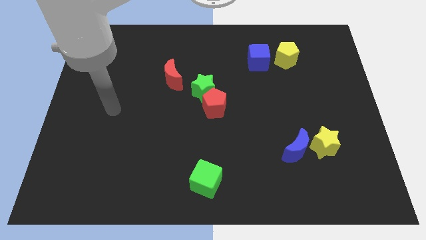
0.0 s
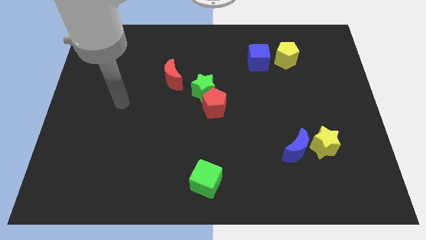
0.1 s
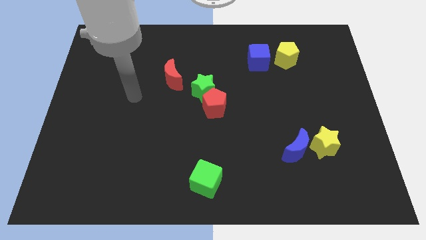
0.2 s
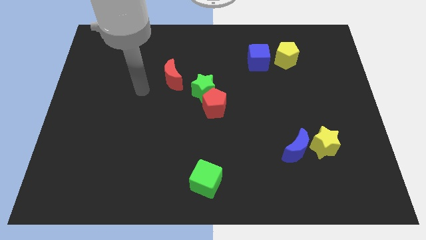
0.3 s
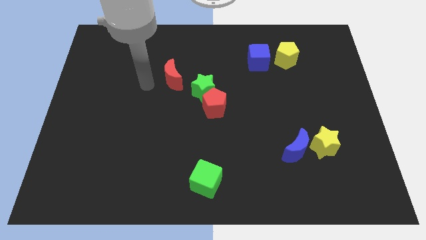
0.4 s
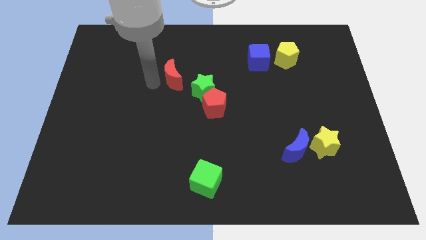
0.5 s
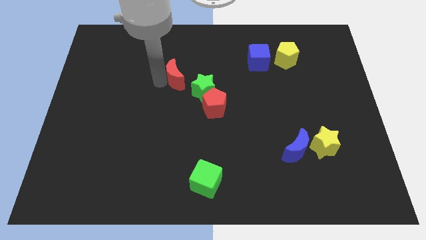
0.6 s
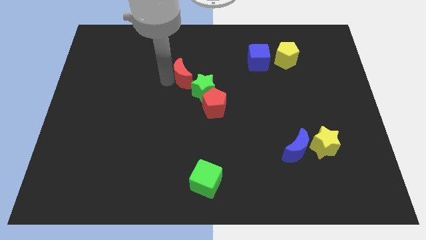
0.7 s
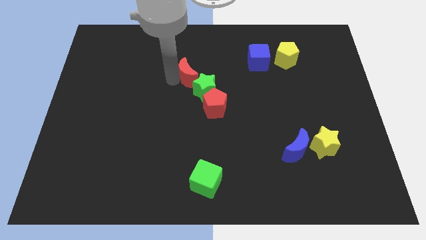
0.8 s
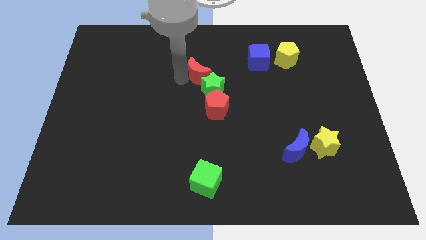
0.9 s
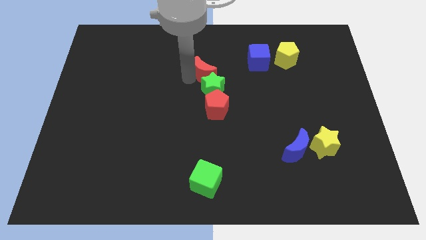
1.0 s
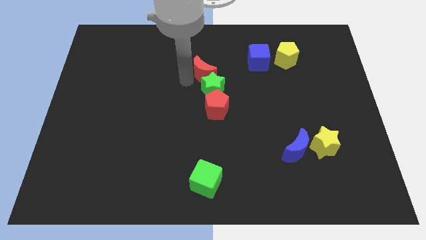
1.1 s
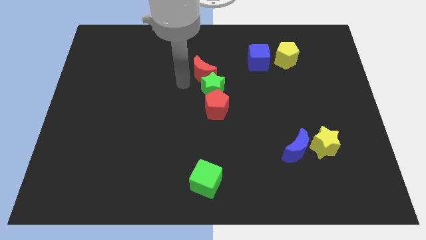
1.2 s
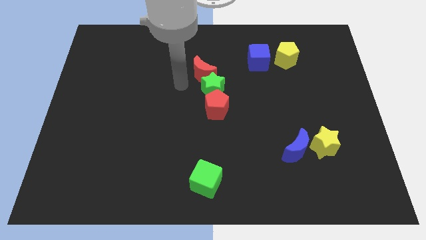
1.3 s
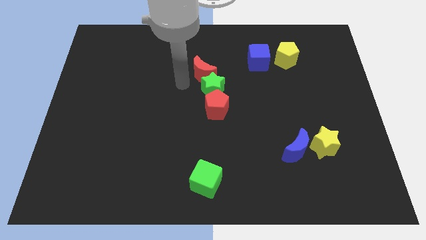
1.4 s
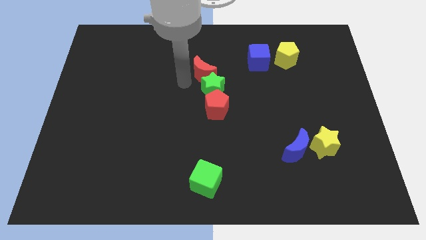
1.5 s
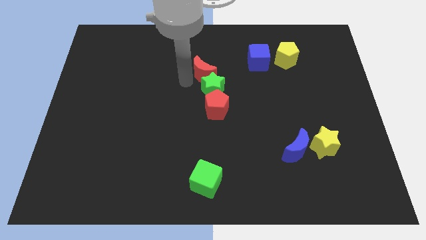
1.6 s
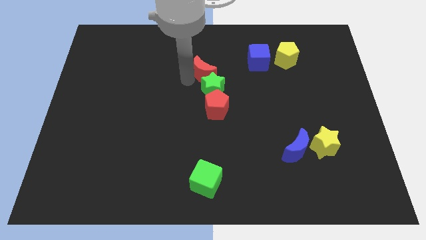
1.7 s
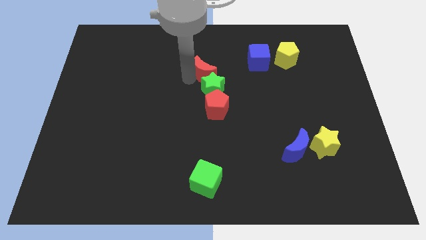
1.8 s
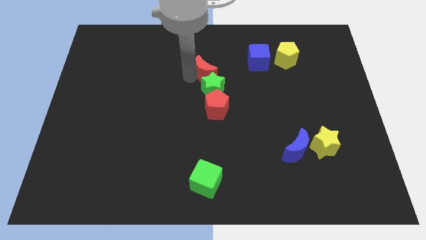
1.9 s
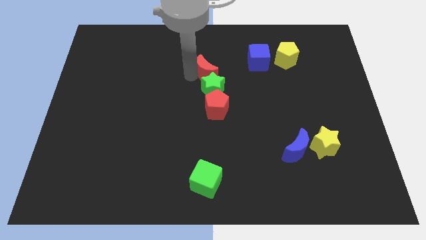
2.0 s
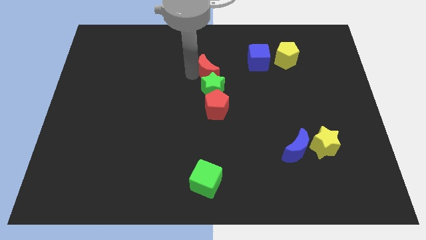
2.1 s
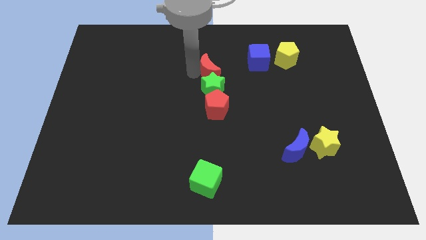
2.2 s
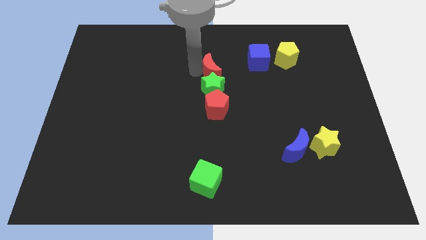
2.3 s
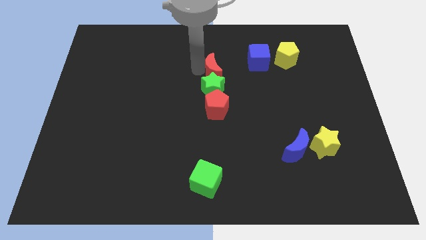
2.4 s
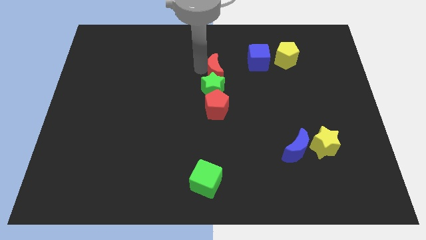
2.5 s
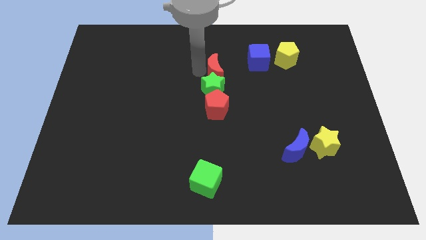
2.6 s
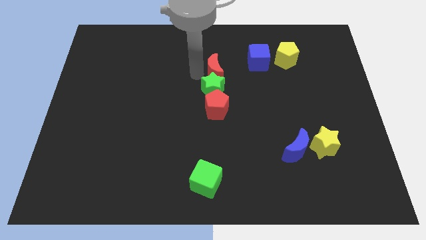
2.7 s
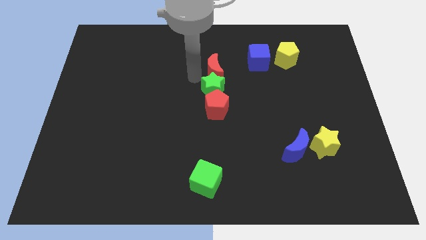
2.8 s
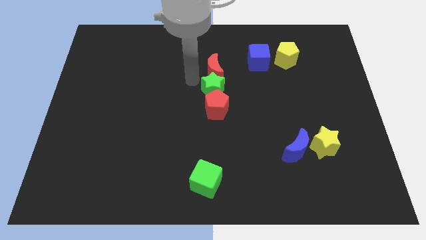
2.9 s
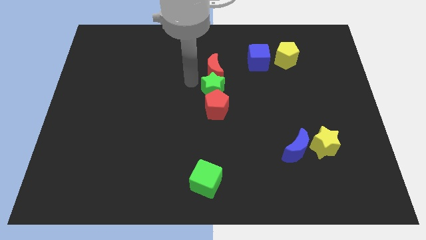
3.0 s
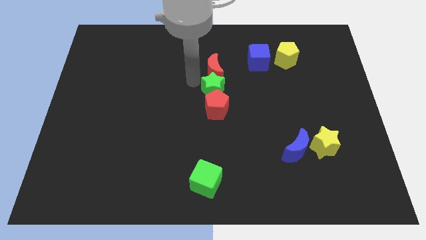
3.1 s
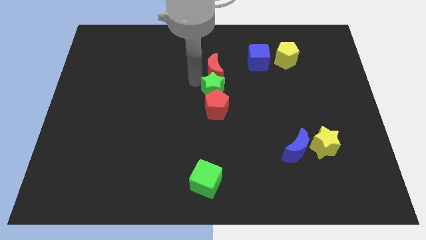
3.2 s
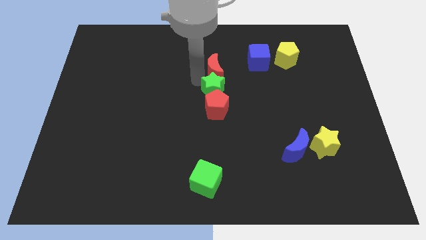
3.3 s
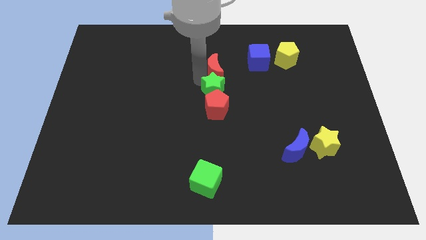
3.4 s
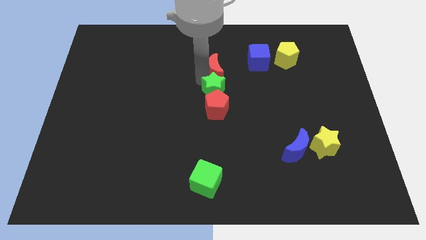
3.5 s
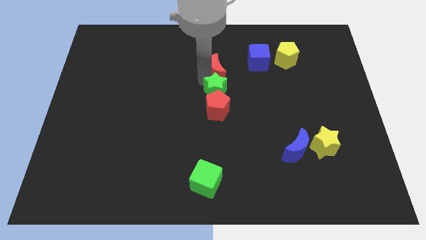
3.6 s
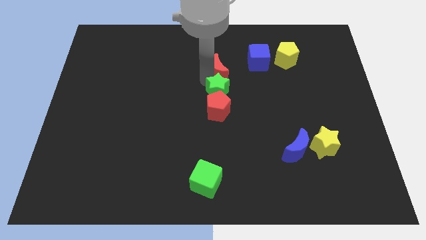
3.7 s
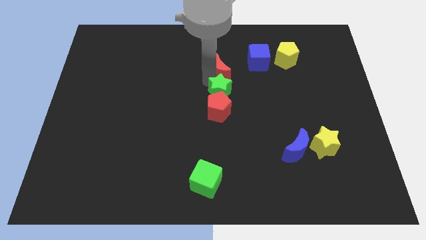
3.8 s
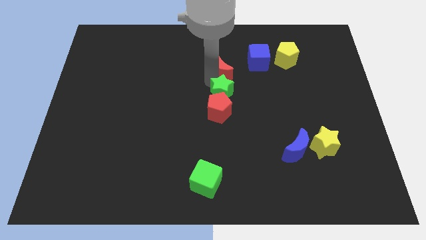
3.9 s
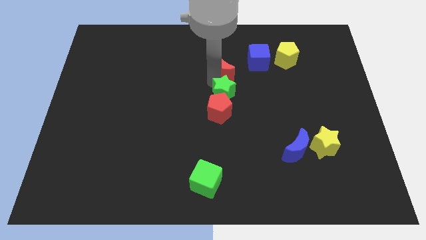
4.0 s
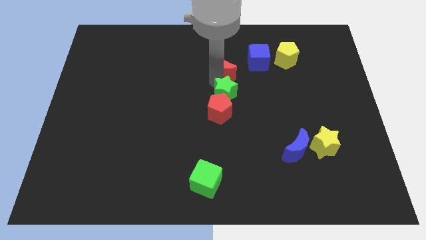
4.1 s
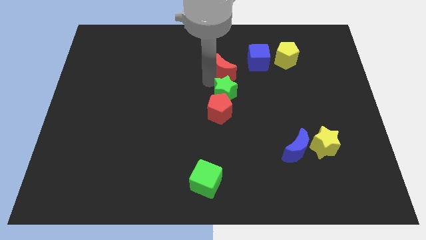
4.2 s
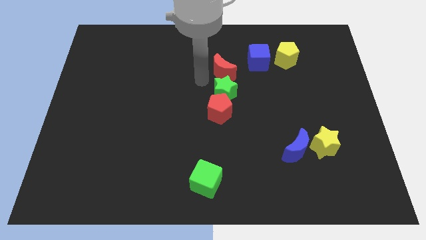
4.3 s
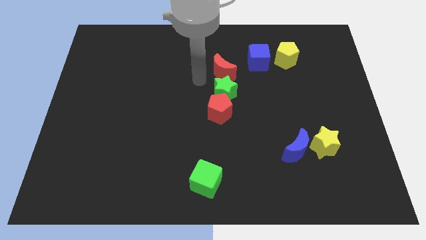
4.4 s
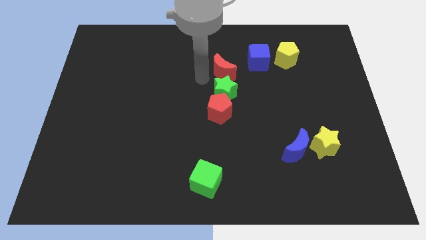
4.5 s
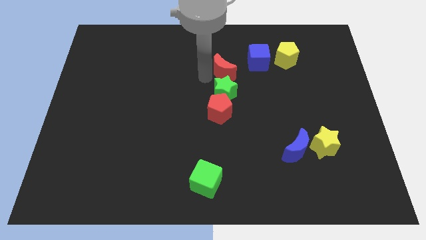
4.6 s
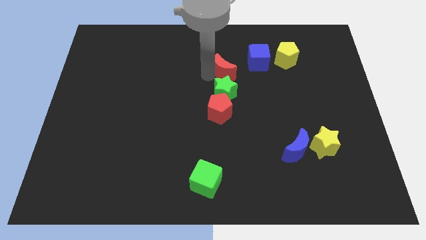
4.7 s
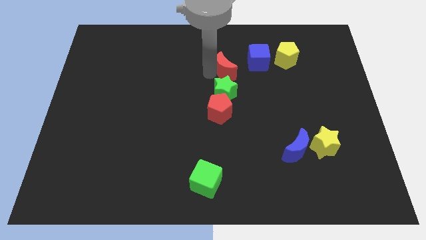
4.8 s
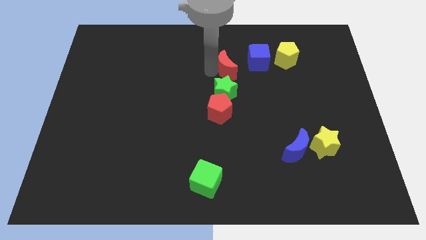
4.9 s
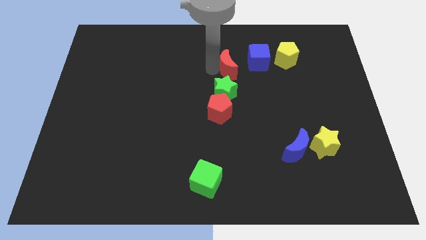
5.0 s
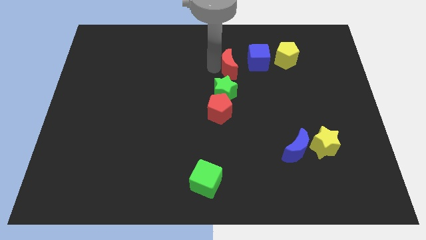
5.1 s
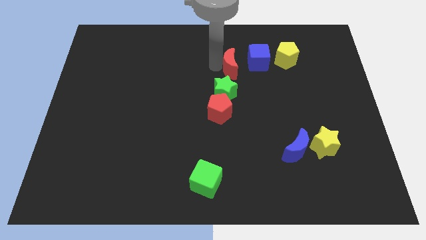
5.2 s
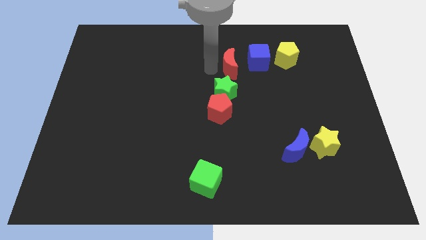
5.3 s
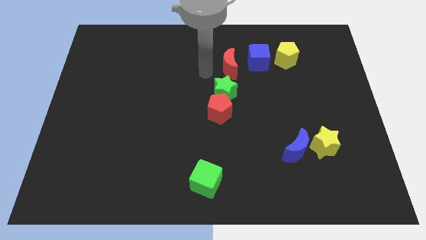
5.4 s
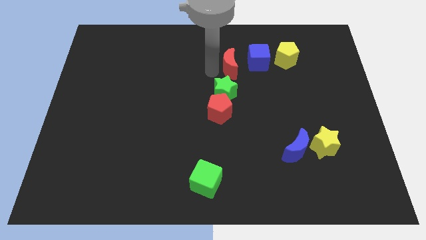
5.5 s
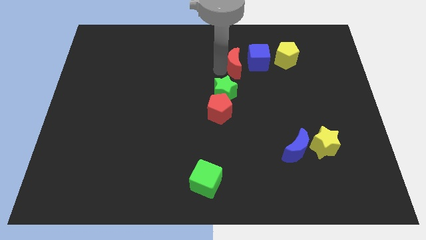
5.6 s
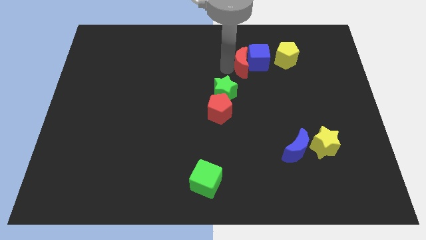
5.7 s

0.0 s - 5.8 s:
move the red moon to the blue cube

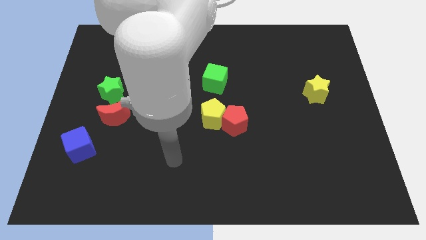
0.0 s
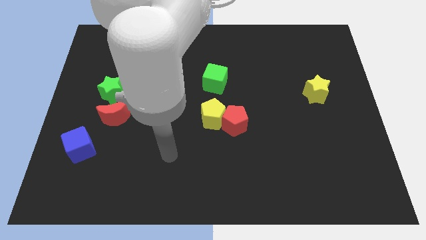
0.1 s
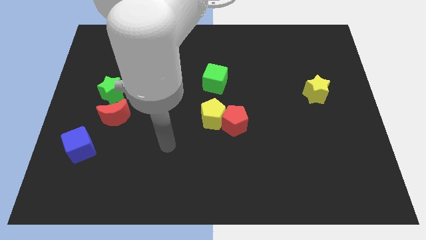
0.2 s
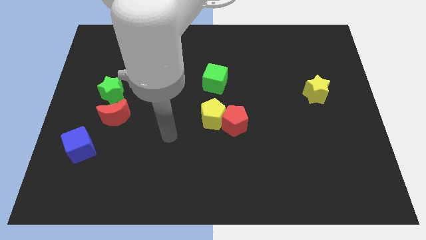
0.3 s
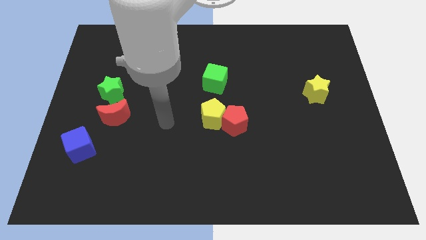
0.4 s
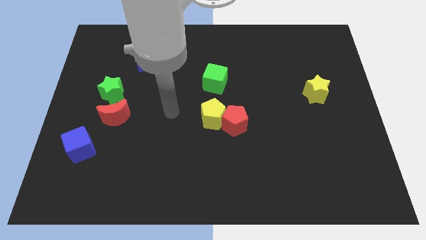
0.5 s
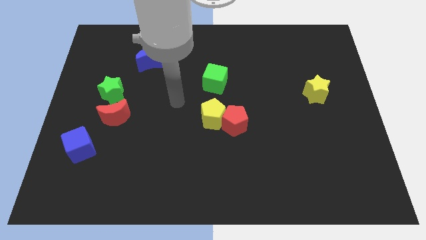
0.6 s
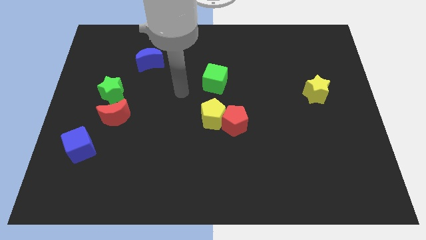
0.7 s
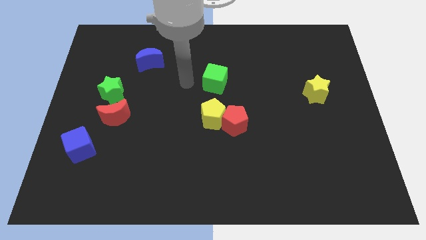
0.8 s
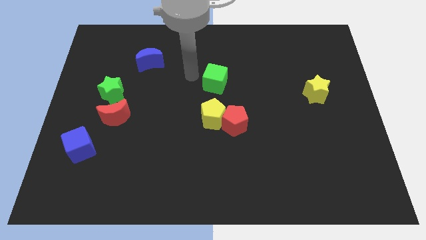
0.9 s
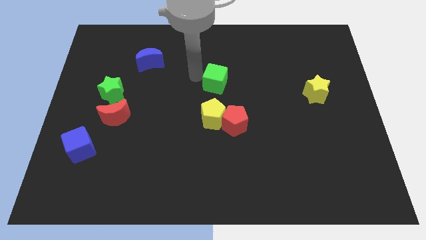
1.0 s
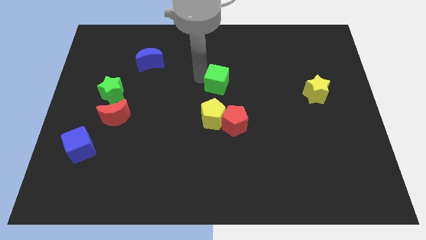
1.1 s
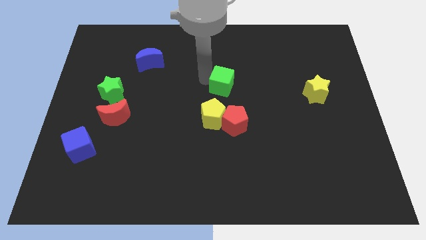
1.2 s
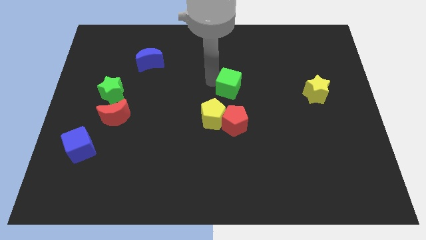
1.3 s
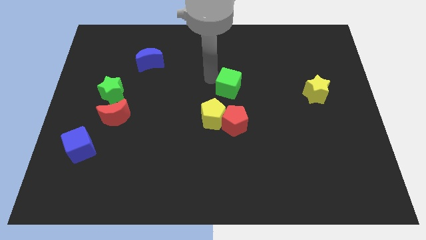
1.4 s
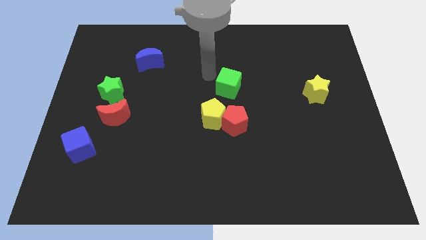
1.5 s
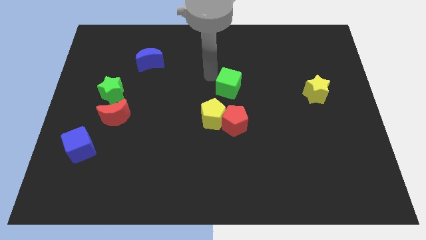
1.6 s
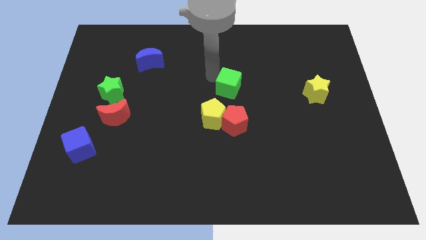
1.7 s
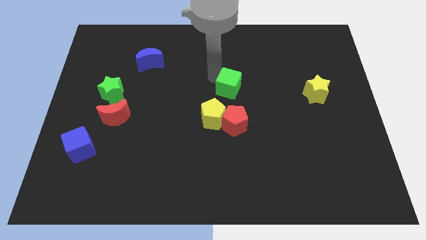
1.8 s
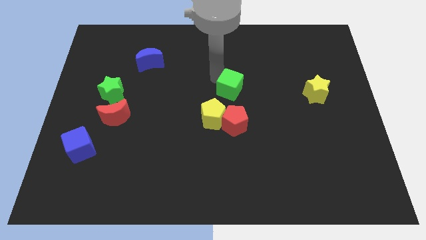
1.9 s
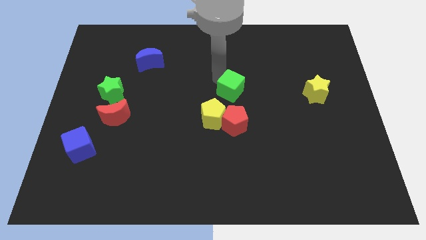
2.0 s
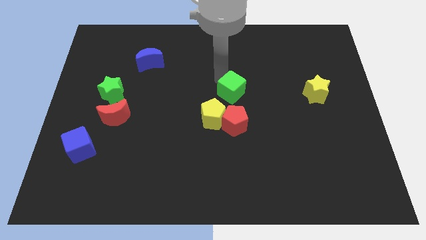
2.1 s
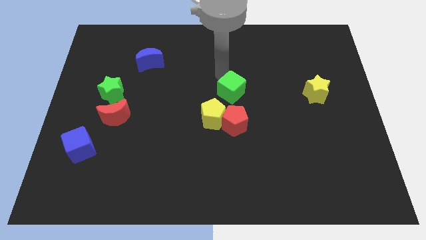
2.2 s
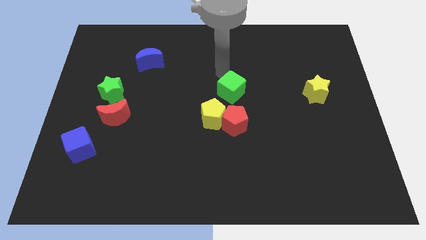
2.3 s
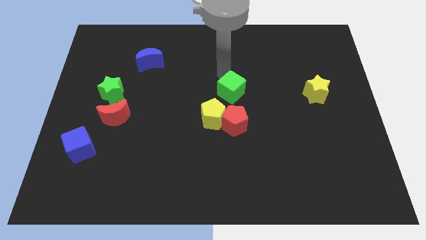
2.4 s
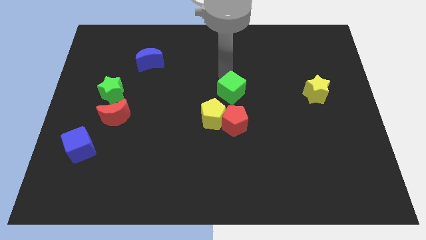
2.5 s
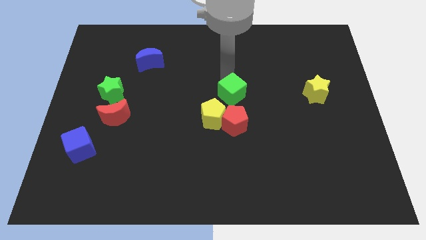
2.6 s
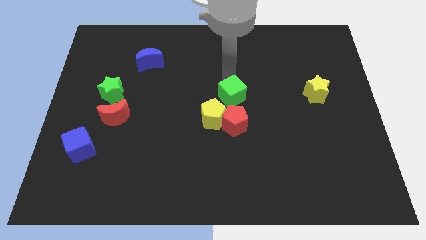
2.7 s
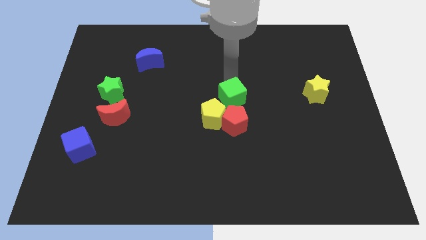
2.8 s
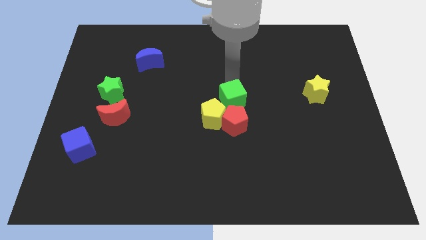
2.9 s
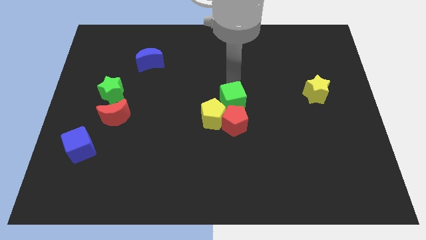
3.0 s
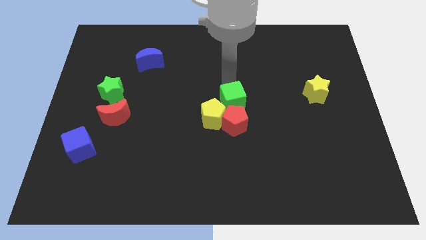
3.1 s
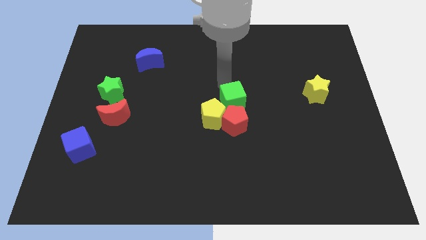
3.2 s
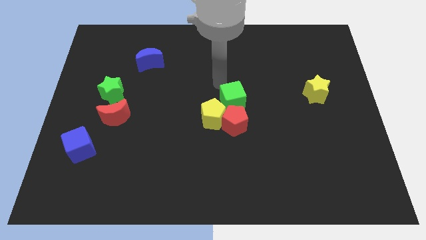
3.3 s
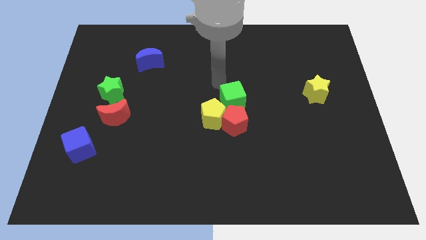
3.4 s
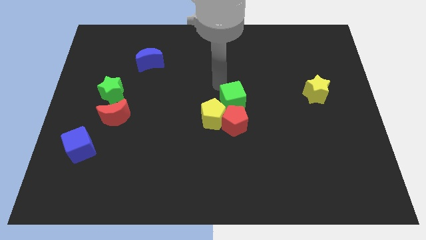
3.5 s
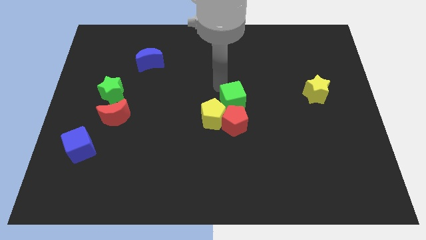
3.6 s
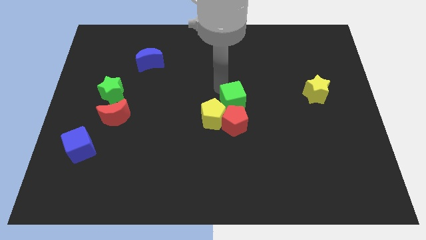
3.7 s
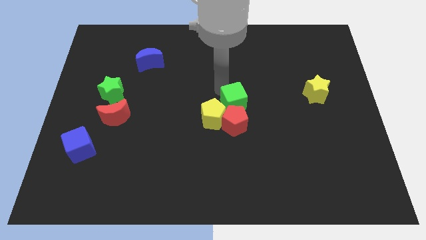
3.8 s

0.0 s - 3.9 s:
put the green cube to the red pentagon
